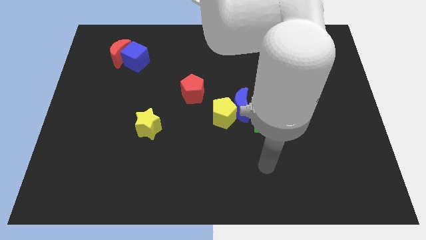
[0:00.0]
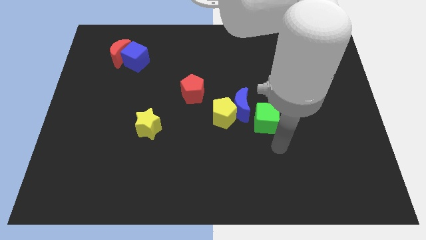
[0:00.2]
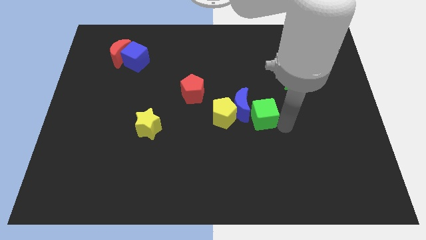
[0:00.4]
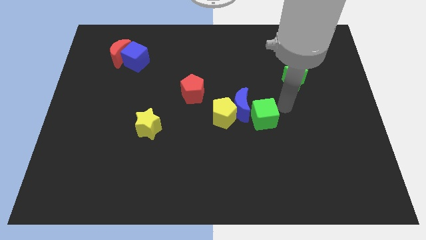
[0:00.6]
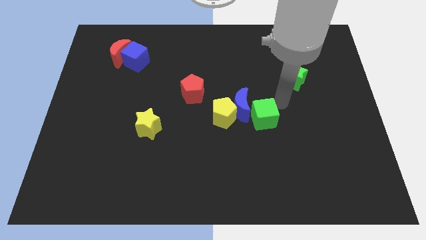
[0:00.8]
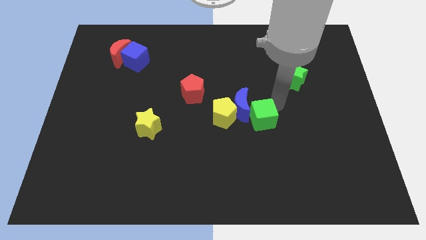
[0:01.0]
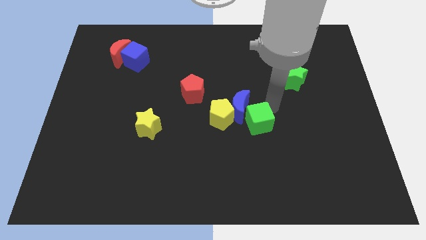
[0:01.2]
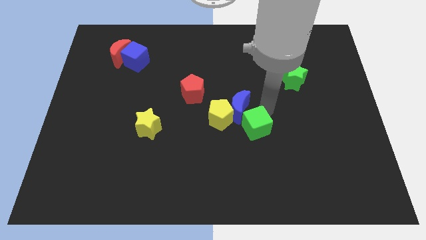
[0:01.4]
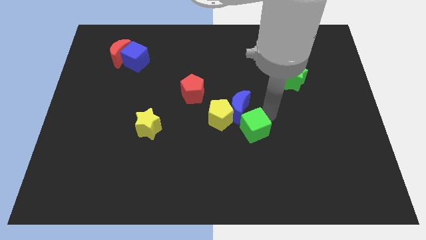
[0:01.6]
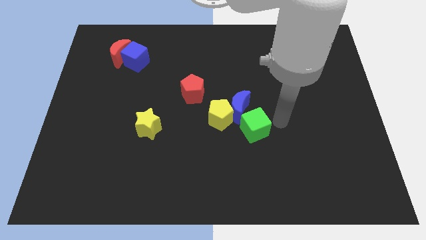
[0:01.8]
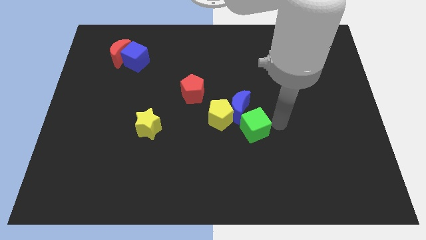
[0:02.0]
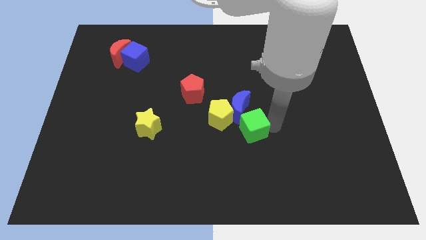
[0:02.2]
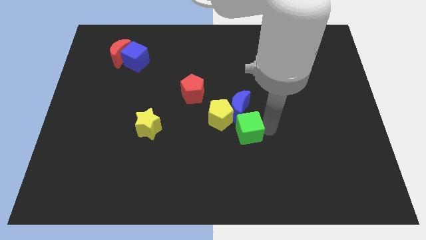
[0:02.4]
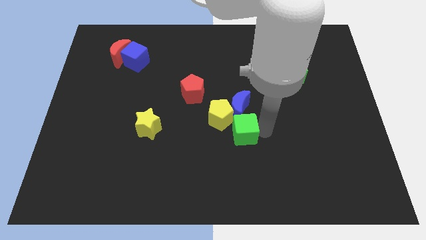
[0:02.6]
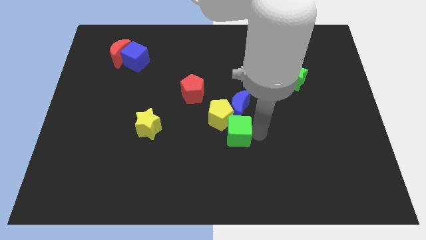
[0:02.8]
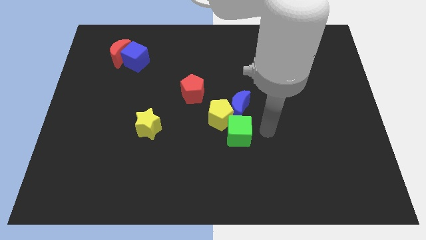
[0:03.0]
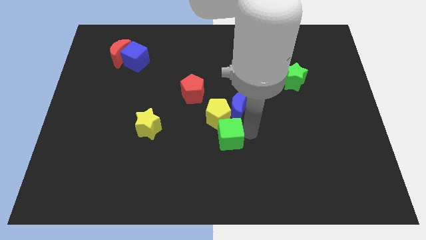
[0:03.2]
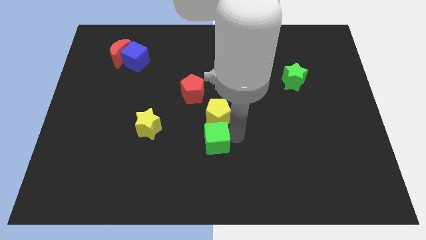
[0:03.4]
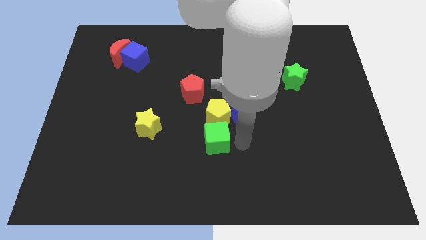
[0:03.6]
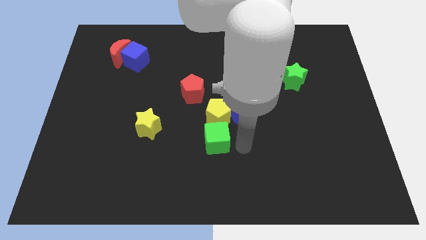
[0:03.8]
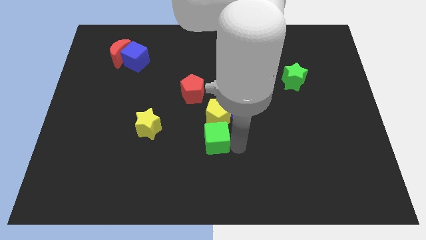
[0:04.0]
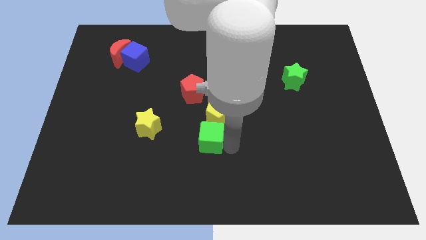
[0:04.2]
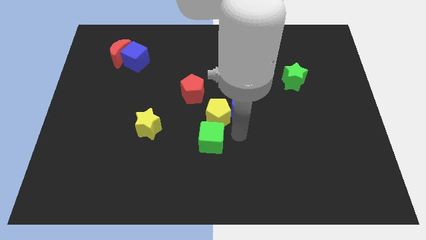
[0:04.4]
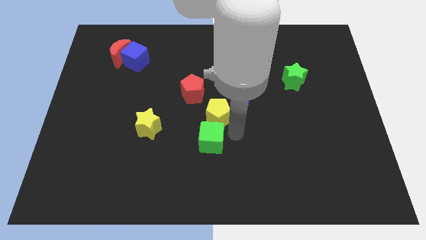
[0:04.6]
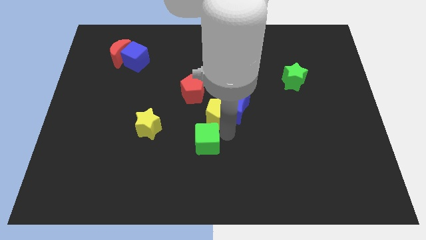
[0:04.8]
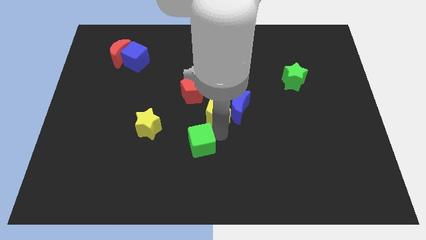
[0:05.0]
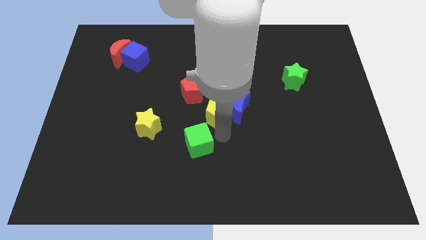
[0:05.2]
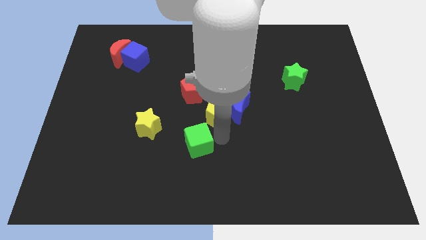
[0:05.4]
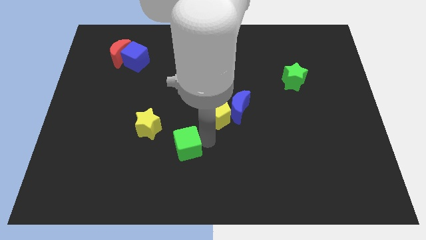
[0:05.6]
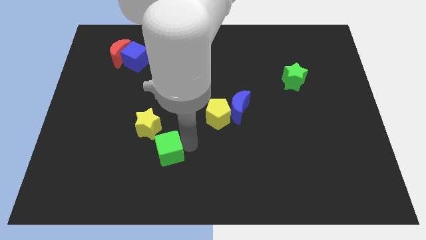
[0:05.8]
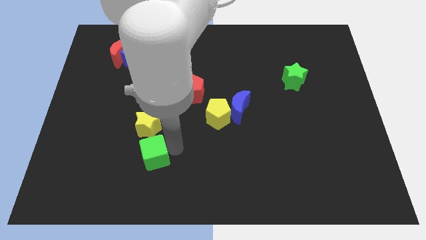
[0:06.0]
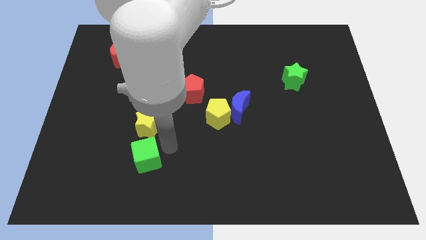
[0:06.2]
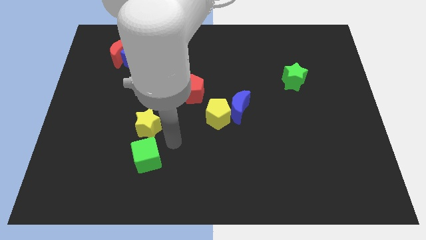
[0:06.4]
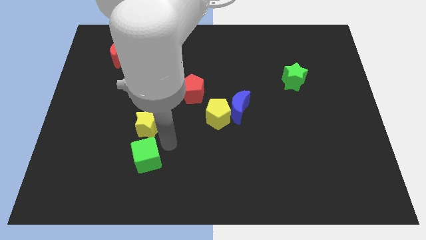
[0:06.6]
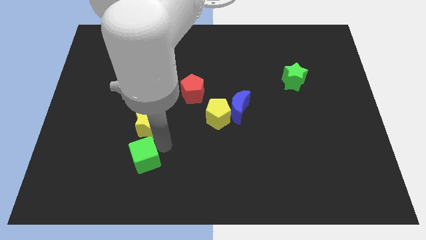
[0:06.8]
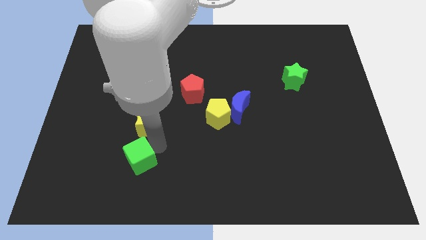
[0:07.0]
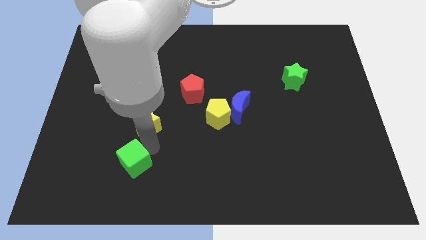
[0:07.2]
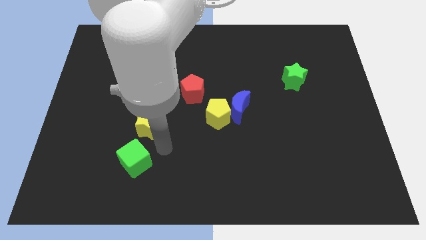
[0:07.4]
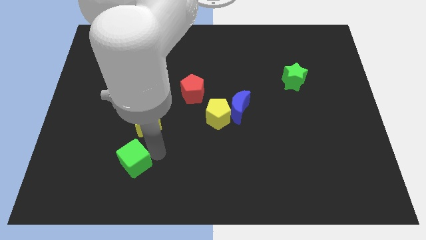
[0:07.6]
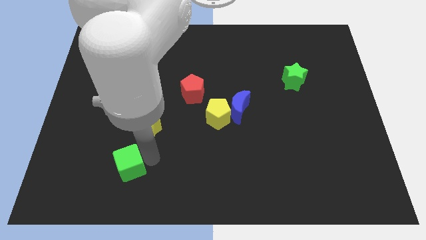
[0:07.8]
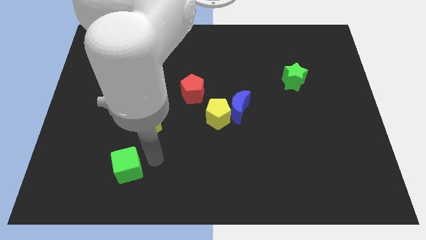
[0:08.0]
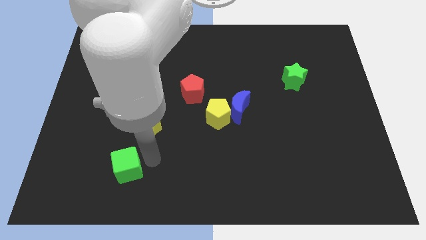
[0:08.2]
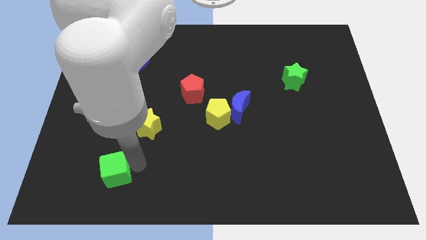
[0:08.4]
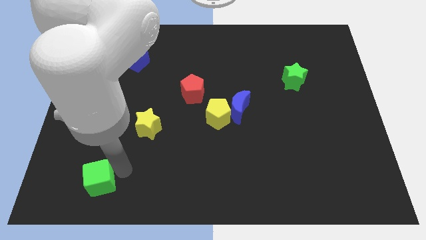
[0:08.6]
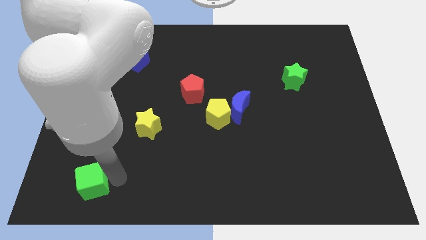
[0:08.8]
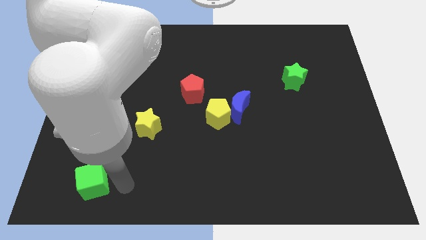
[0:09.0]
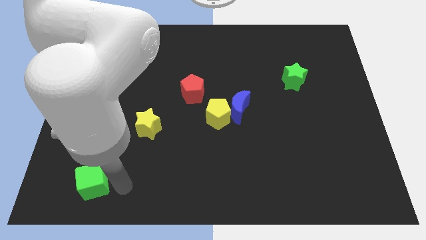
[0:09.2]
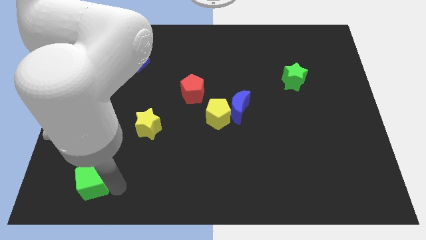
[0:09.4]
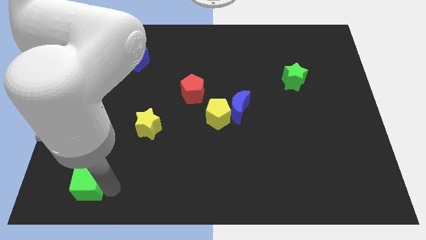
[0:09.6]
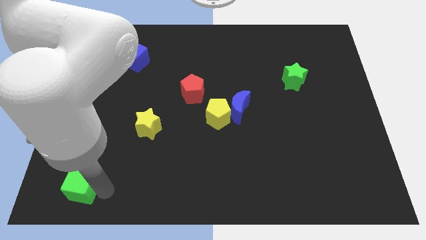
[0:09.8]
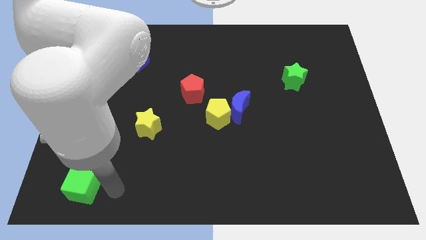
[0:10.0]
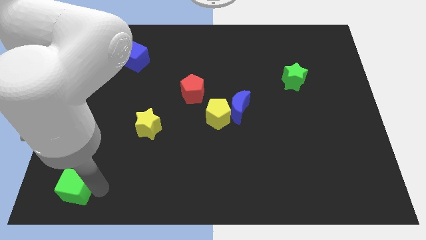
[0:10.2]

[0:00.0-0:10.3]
push the green cube to the bottom left corner

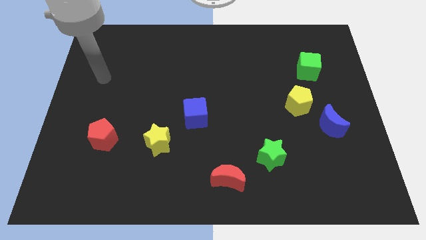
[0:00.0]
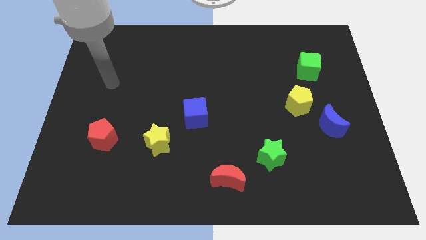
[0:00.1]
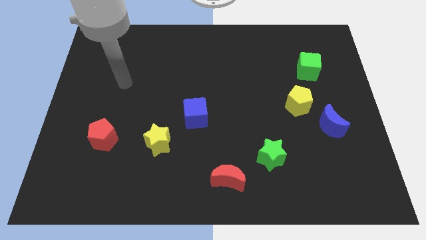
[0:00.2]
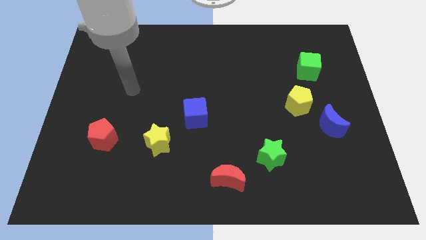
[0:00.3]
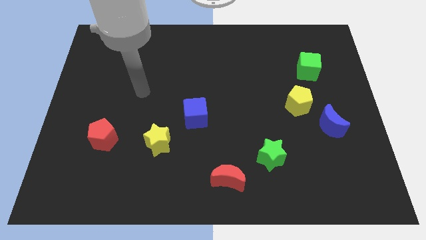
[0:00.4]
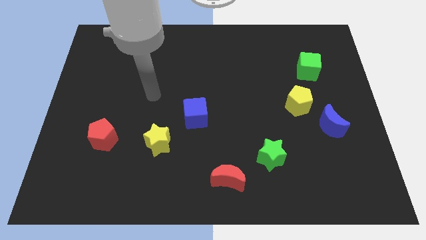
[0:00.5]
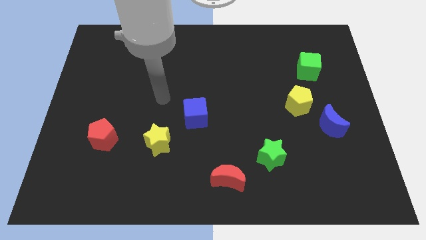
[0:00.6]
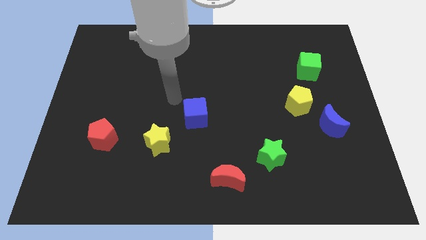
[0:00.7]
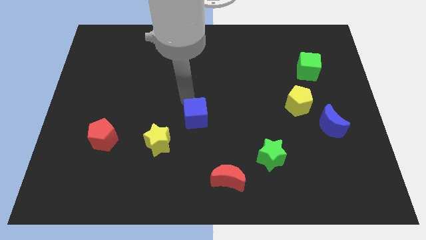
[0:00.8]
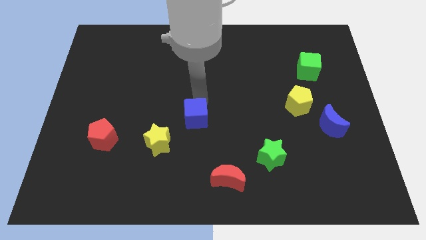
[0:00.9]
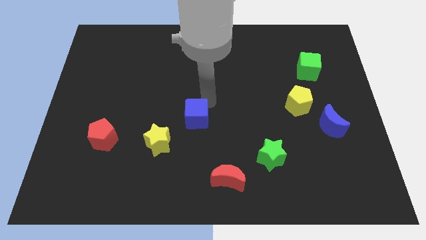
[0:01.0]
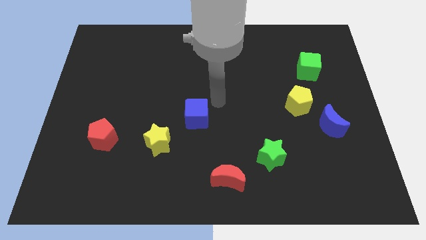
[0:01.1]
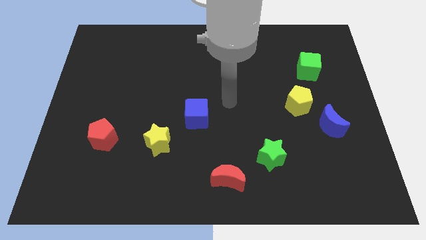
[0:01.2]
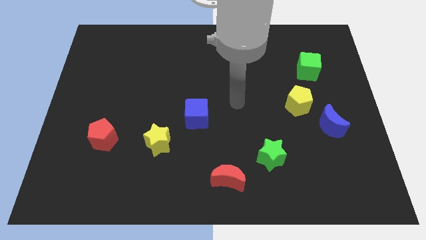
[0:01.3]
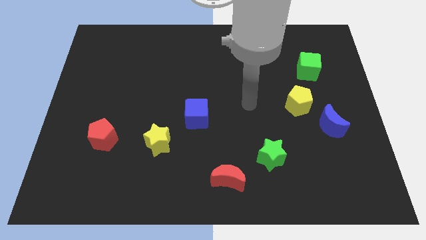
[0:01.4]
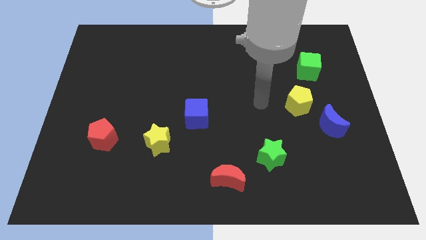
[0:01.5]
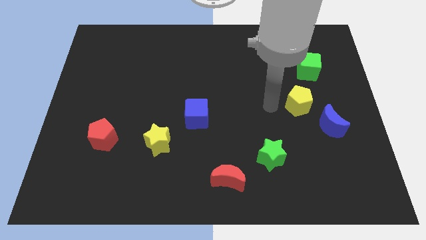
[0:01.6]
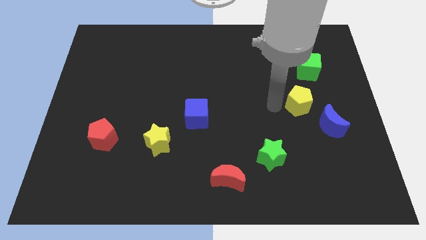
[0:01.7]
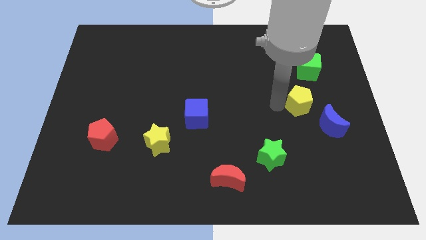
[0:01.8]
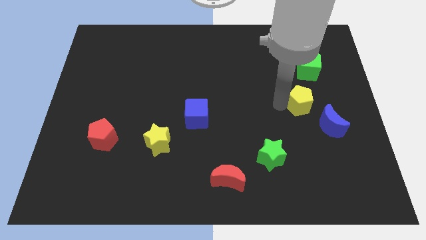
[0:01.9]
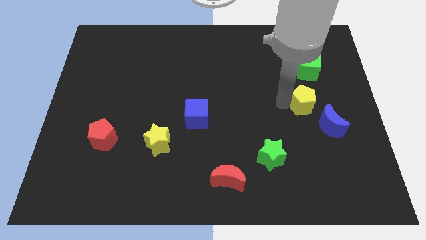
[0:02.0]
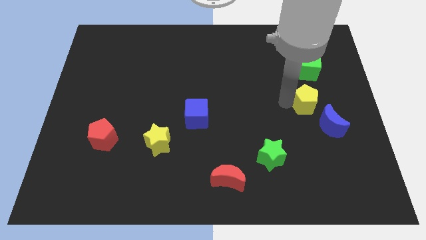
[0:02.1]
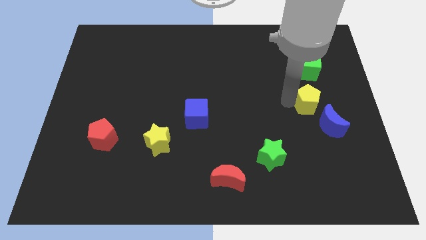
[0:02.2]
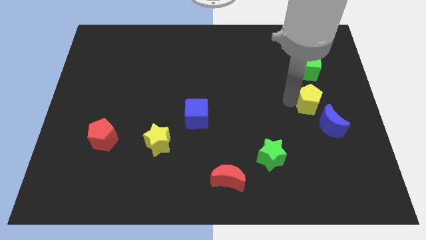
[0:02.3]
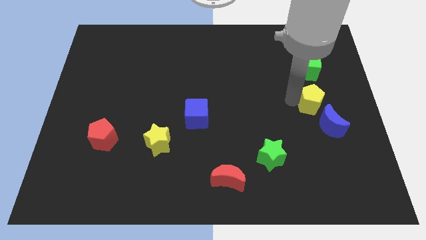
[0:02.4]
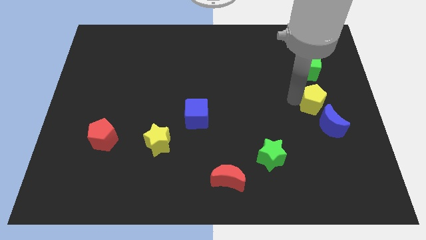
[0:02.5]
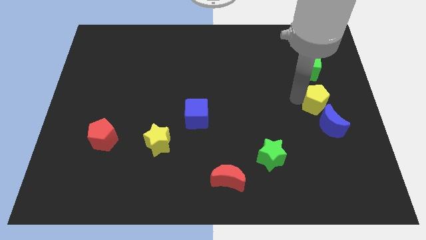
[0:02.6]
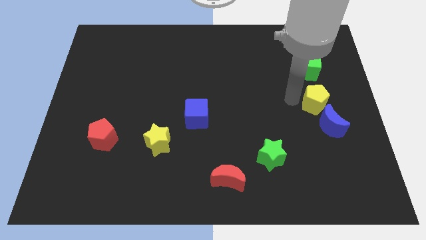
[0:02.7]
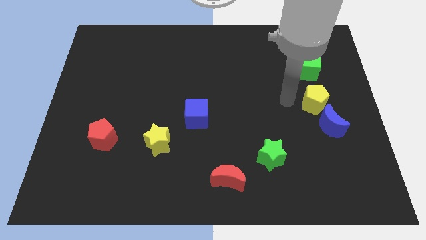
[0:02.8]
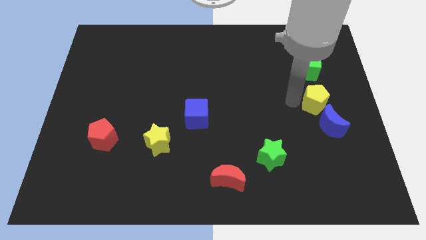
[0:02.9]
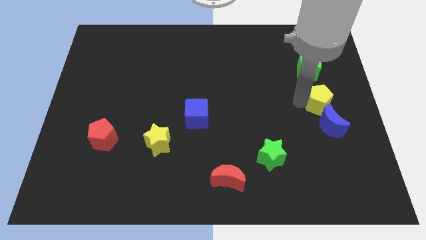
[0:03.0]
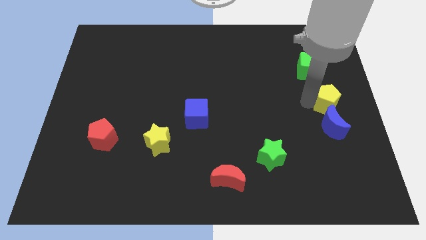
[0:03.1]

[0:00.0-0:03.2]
move the yellow pentagon to the center right
